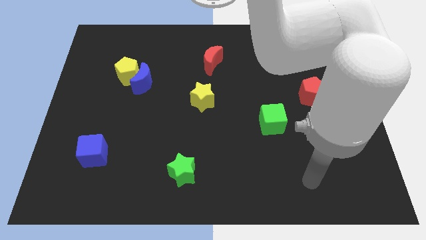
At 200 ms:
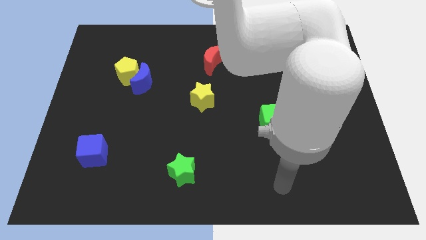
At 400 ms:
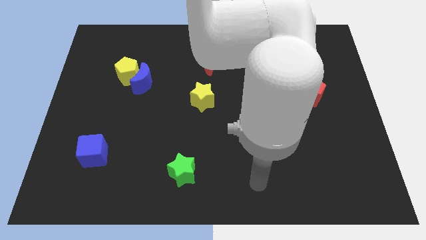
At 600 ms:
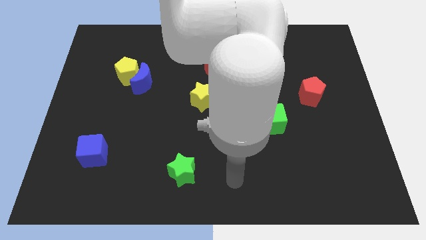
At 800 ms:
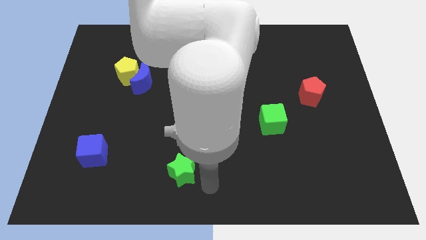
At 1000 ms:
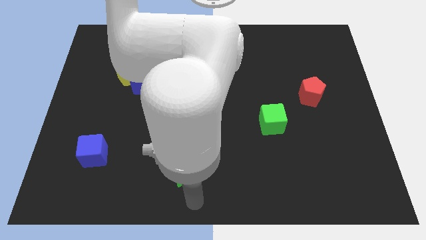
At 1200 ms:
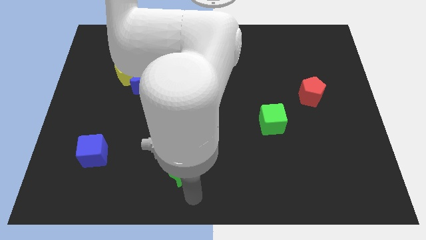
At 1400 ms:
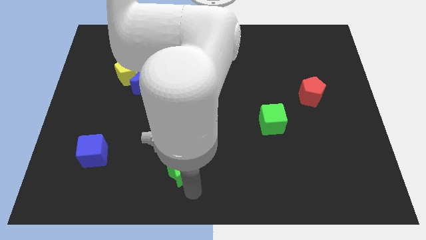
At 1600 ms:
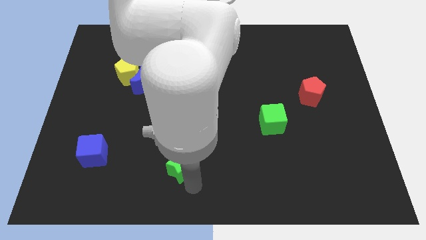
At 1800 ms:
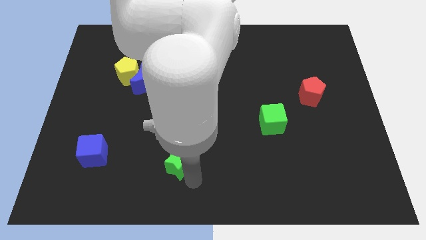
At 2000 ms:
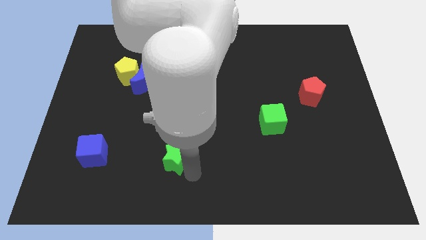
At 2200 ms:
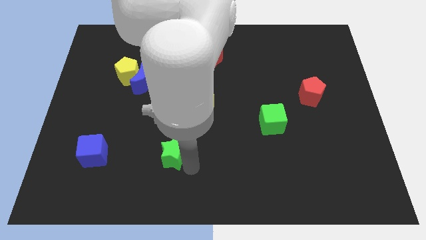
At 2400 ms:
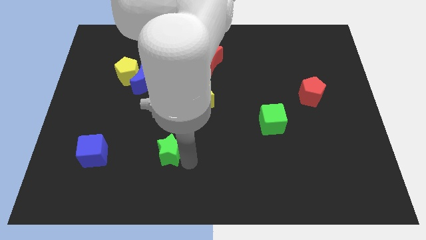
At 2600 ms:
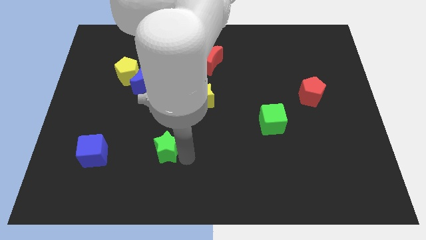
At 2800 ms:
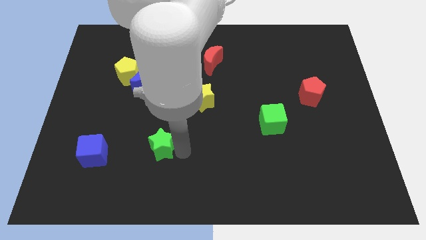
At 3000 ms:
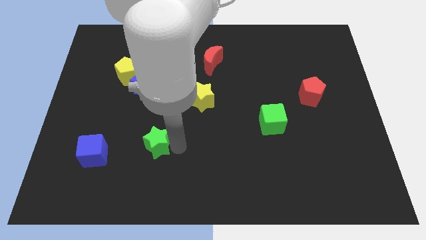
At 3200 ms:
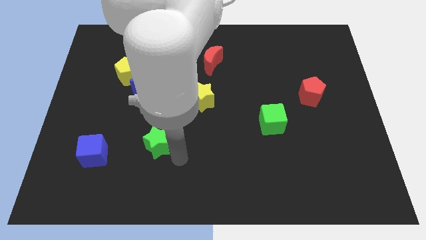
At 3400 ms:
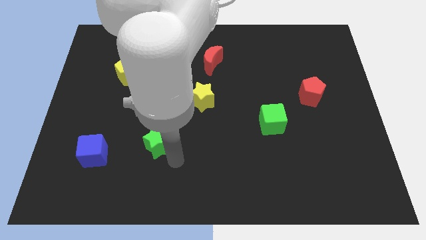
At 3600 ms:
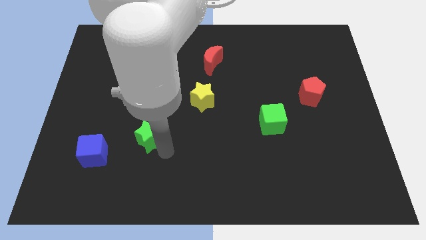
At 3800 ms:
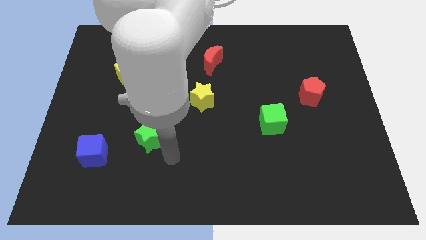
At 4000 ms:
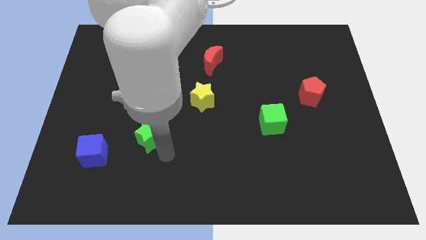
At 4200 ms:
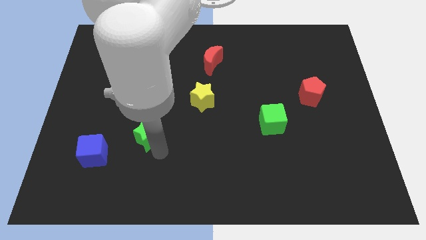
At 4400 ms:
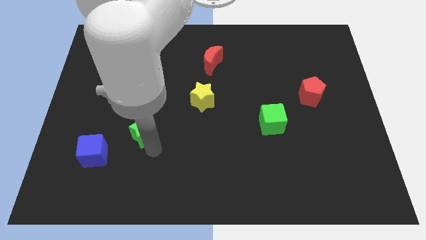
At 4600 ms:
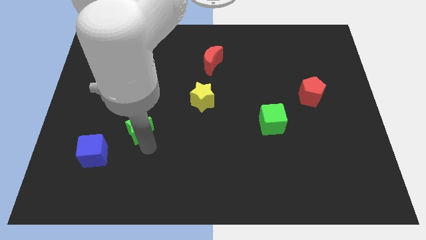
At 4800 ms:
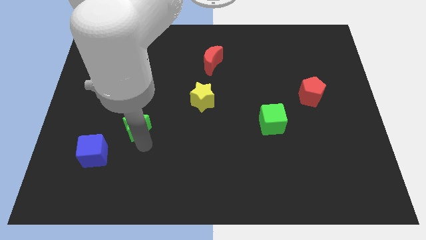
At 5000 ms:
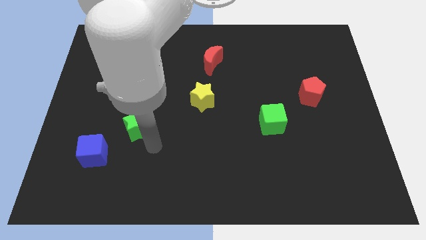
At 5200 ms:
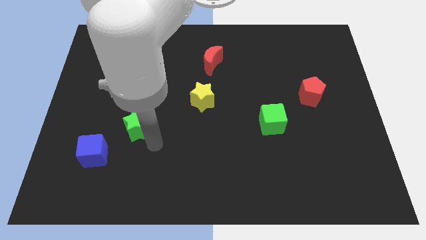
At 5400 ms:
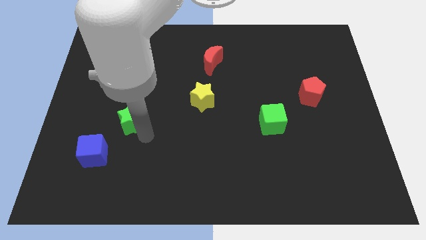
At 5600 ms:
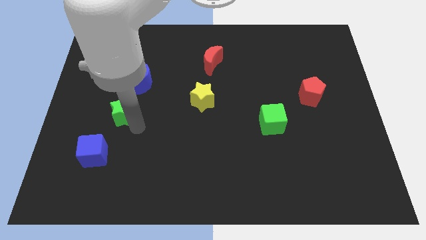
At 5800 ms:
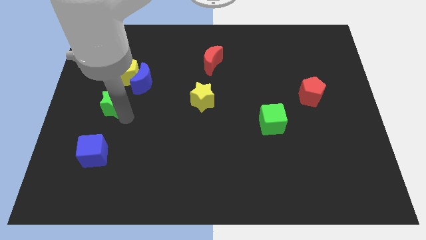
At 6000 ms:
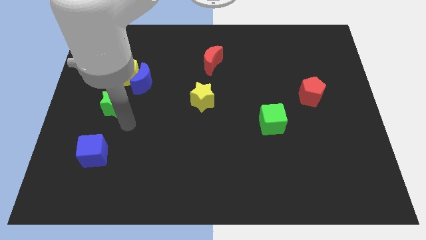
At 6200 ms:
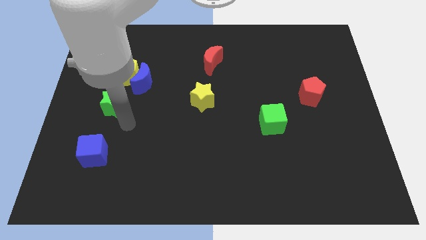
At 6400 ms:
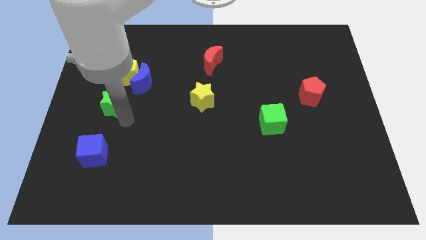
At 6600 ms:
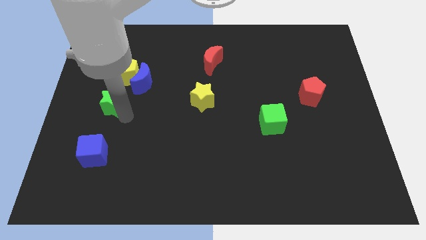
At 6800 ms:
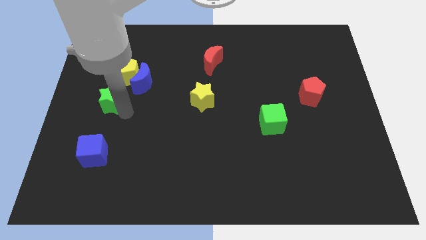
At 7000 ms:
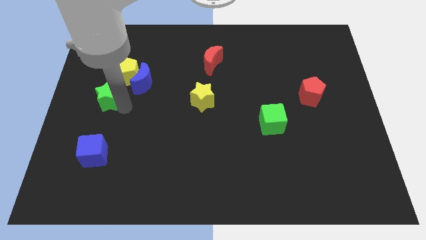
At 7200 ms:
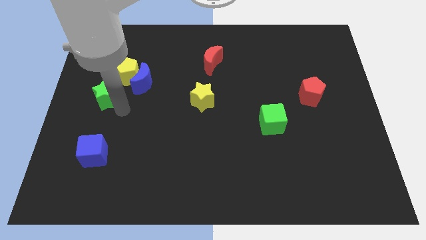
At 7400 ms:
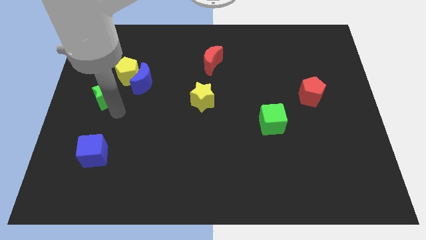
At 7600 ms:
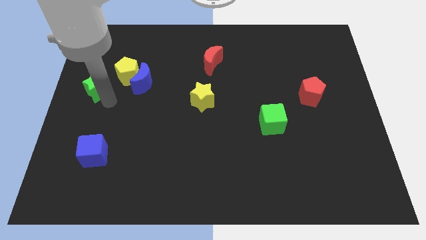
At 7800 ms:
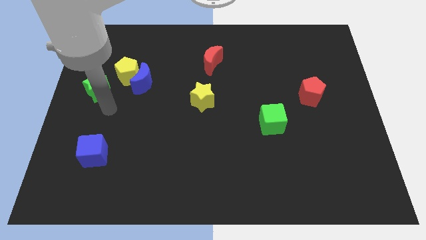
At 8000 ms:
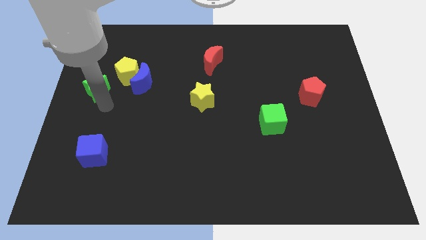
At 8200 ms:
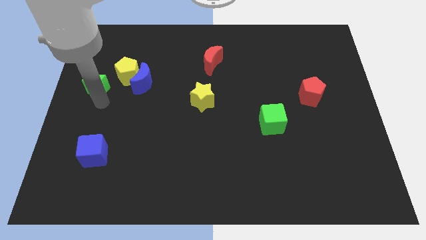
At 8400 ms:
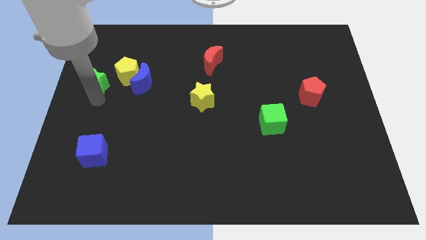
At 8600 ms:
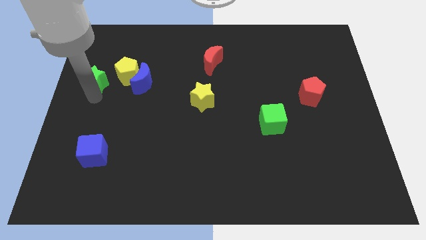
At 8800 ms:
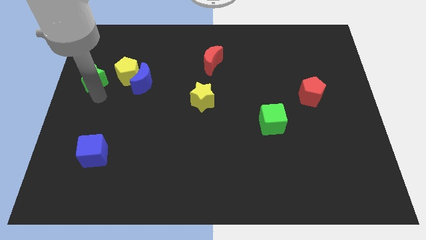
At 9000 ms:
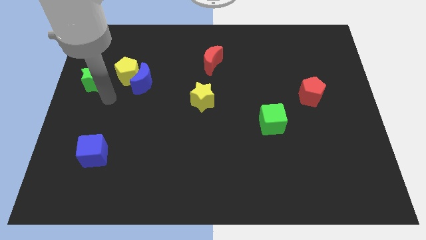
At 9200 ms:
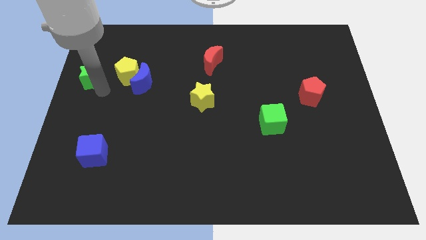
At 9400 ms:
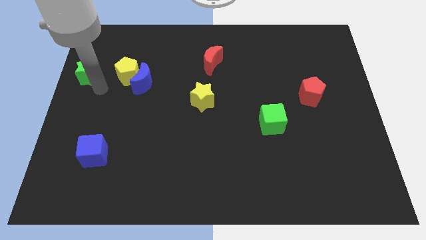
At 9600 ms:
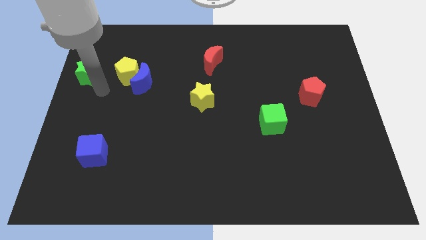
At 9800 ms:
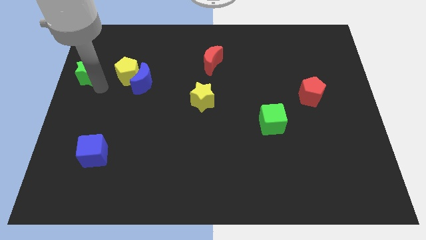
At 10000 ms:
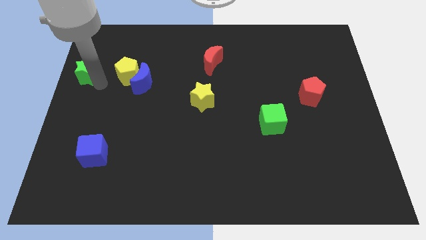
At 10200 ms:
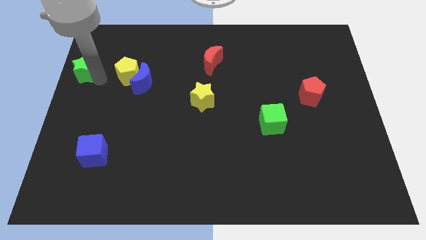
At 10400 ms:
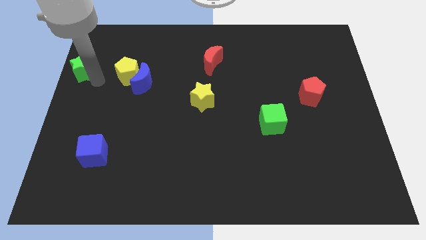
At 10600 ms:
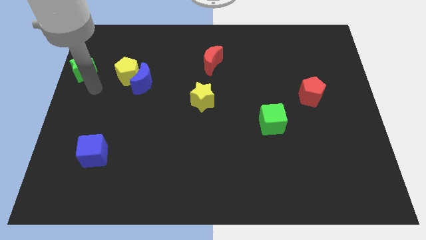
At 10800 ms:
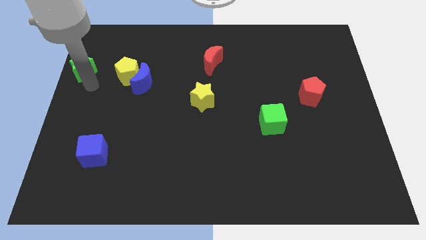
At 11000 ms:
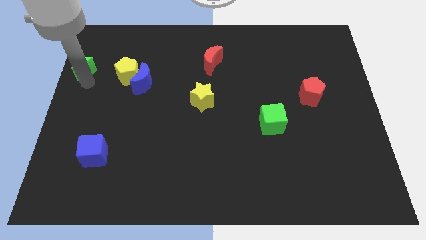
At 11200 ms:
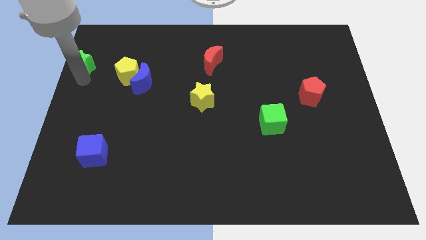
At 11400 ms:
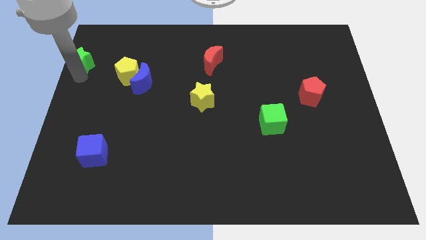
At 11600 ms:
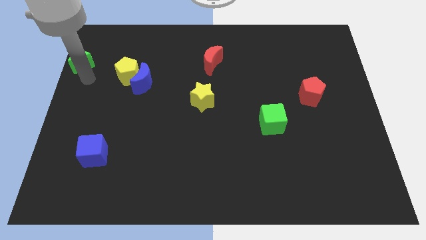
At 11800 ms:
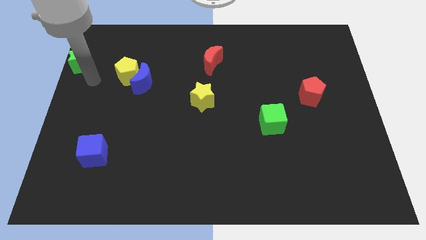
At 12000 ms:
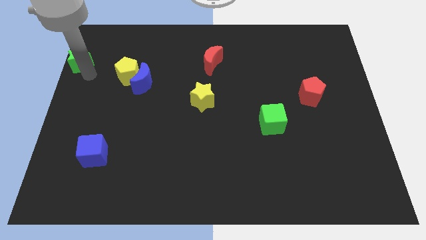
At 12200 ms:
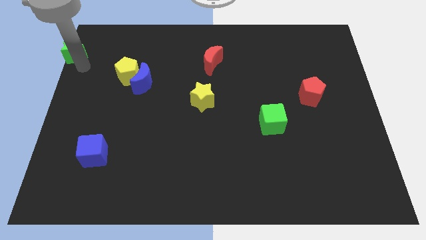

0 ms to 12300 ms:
push the green star to the top left of the board

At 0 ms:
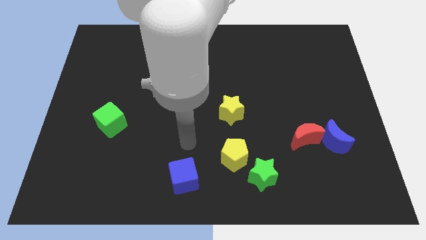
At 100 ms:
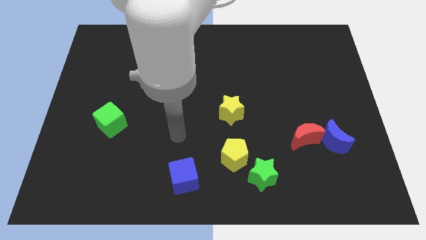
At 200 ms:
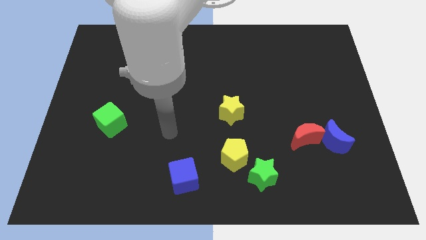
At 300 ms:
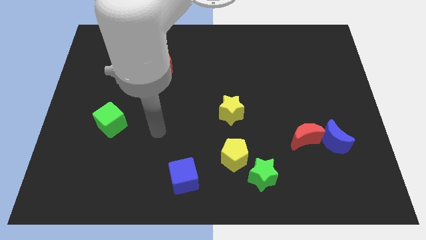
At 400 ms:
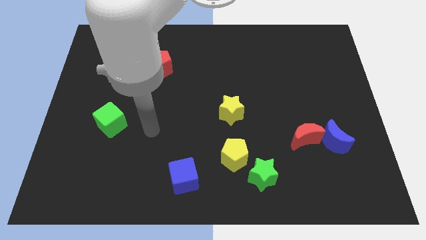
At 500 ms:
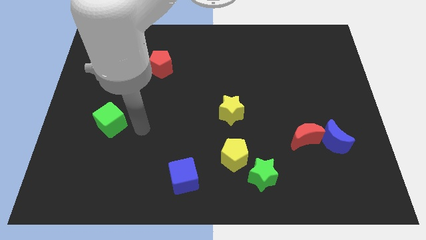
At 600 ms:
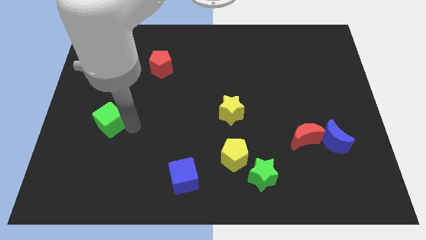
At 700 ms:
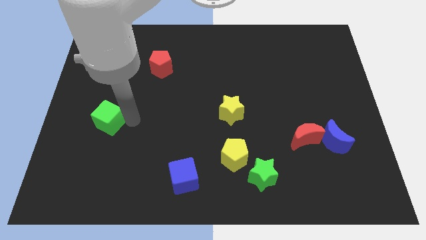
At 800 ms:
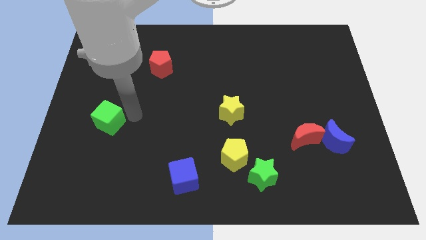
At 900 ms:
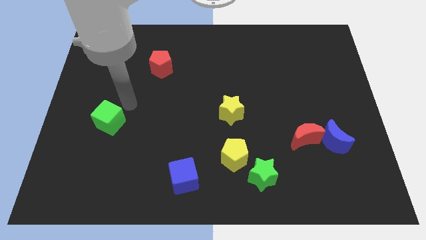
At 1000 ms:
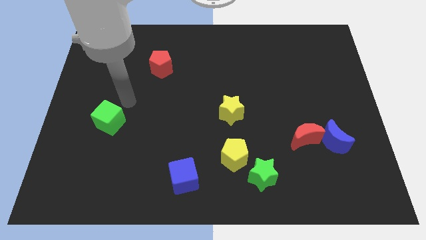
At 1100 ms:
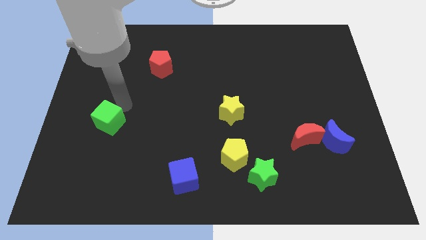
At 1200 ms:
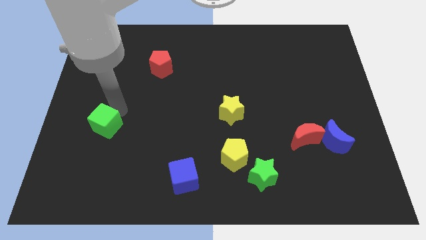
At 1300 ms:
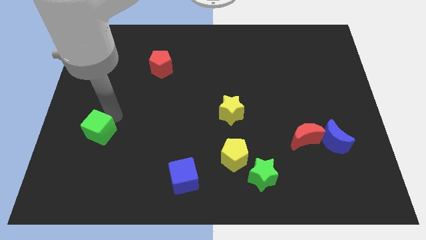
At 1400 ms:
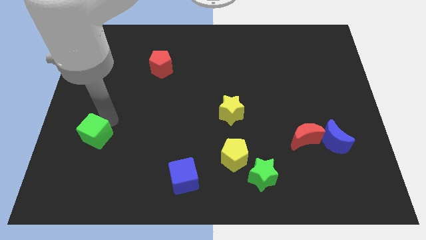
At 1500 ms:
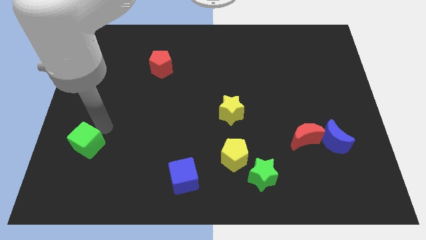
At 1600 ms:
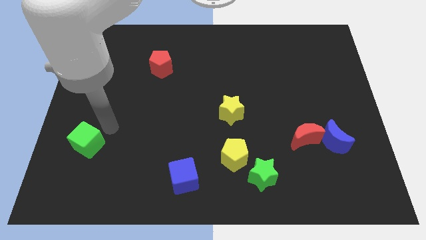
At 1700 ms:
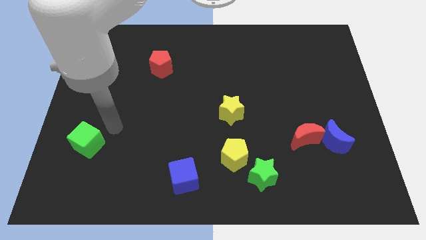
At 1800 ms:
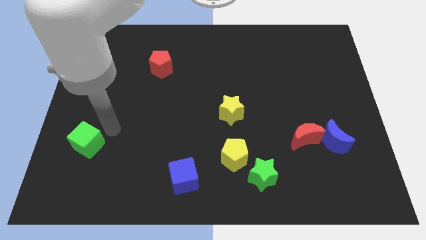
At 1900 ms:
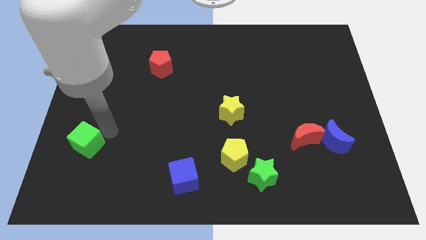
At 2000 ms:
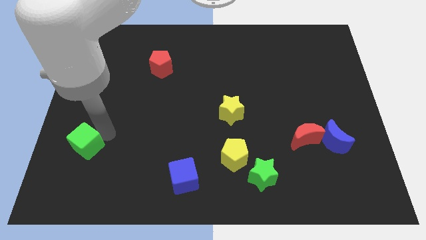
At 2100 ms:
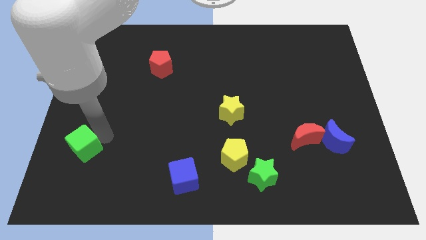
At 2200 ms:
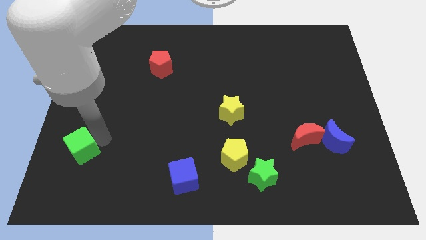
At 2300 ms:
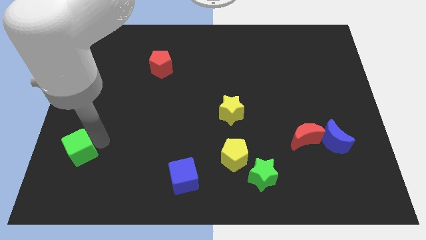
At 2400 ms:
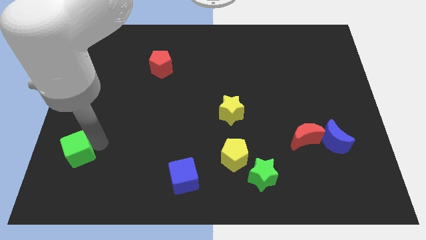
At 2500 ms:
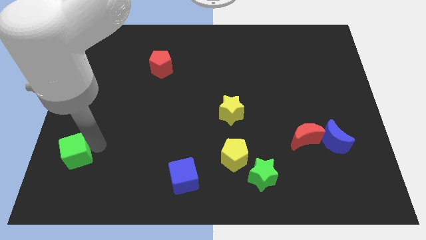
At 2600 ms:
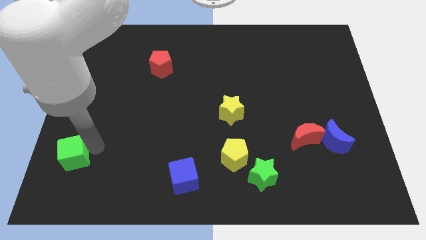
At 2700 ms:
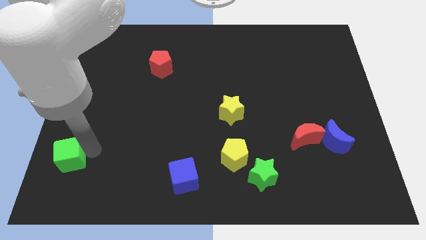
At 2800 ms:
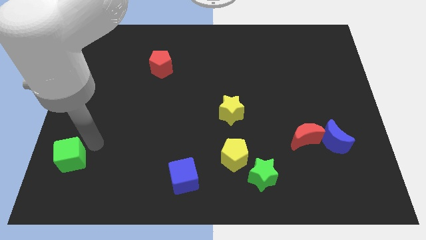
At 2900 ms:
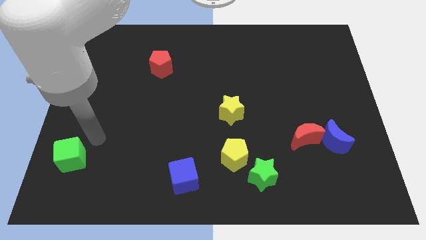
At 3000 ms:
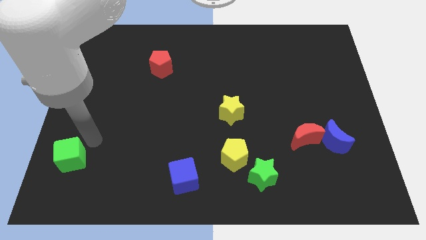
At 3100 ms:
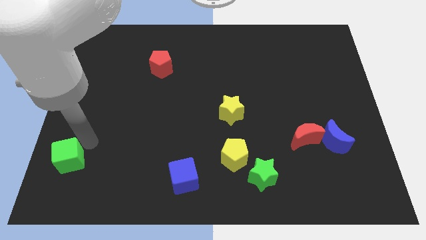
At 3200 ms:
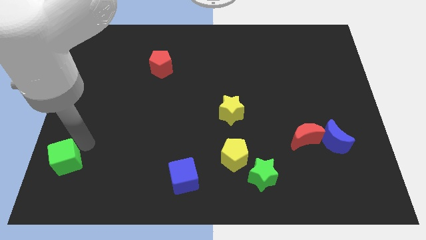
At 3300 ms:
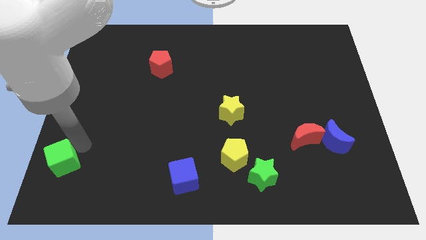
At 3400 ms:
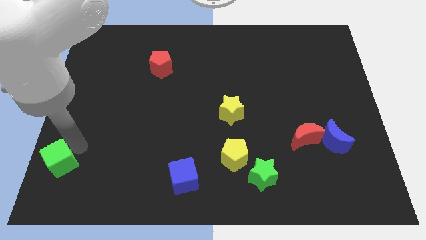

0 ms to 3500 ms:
put the green cube to the lower left corner
